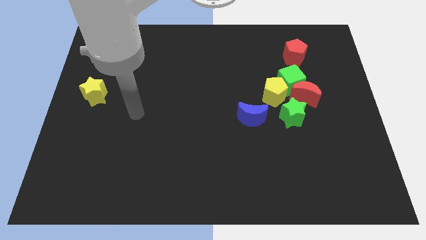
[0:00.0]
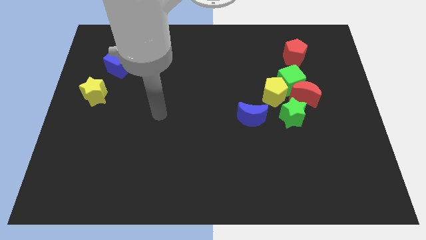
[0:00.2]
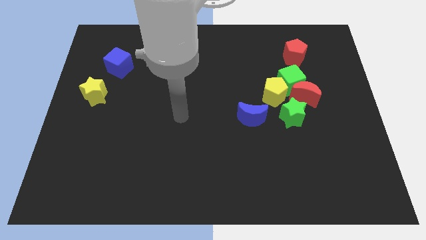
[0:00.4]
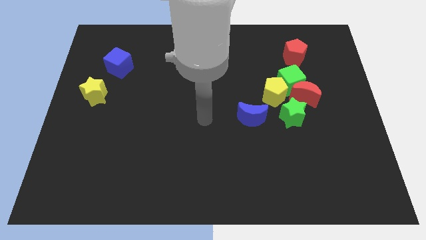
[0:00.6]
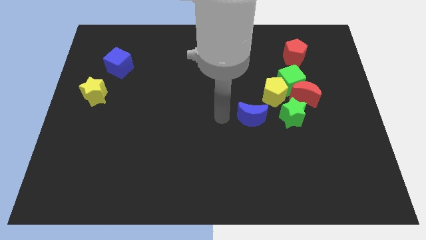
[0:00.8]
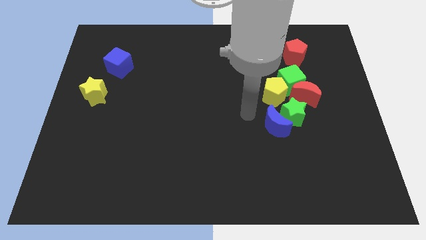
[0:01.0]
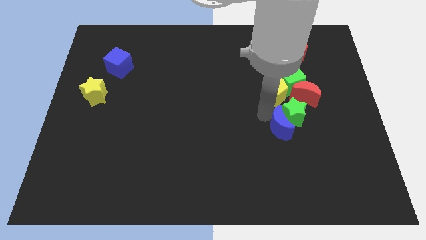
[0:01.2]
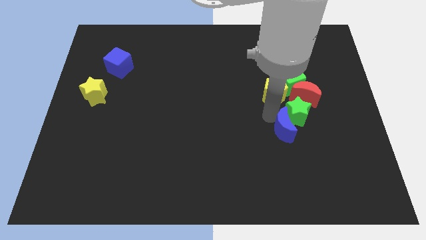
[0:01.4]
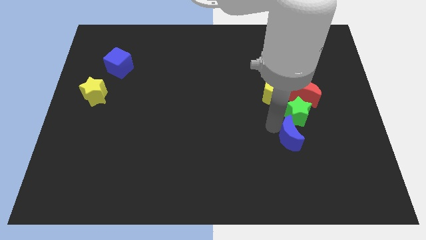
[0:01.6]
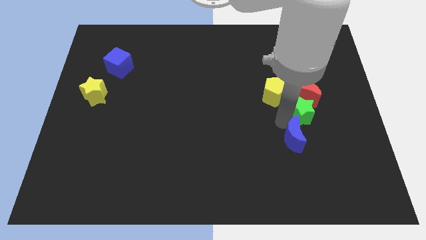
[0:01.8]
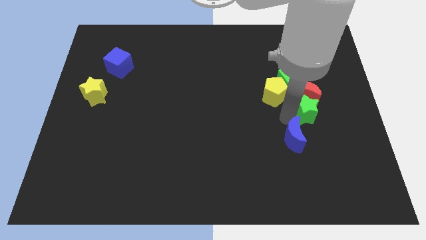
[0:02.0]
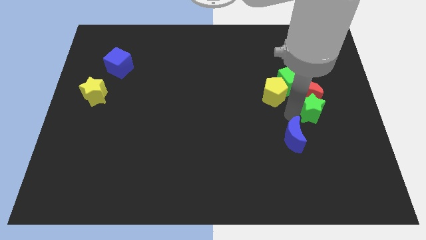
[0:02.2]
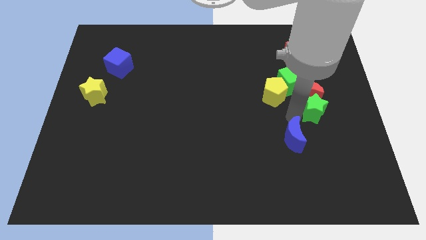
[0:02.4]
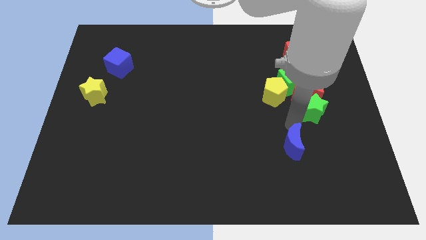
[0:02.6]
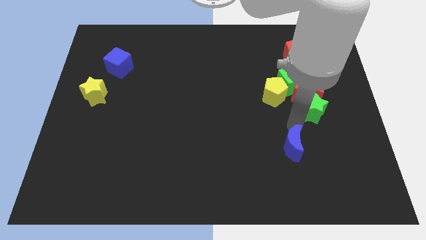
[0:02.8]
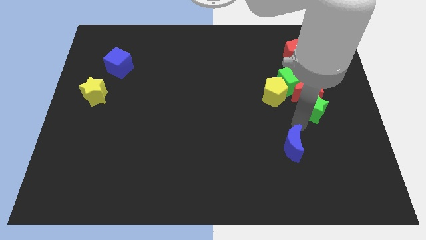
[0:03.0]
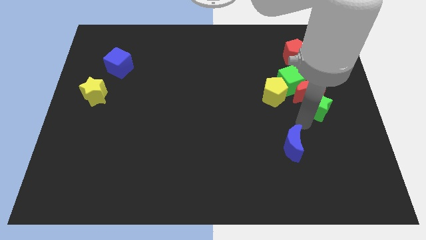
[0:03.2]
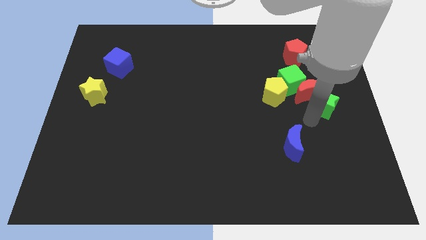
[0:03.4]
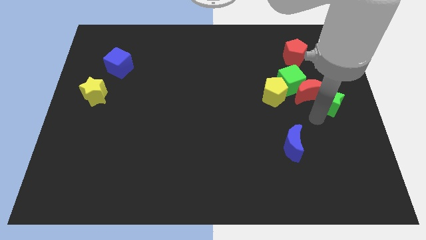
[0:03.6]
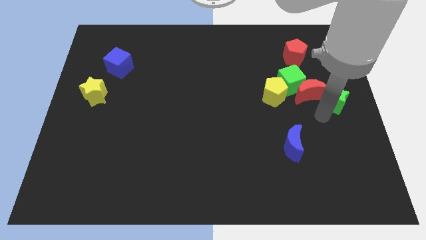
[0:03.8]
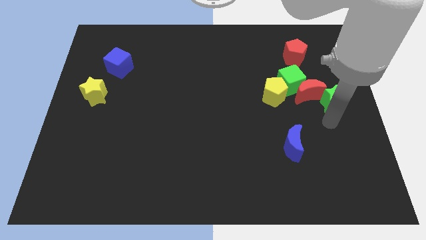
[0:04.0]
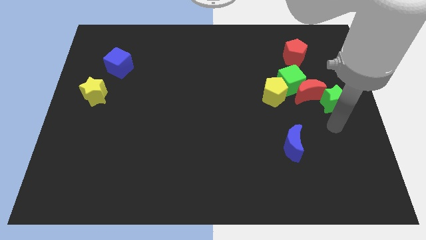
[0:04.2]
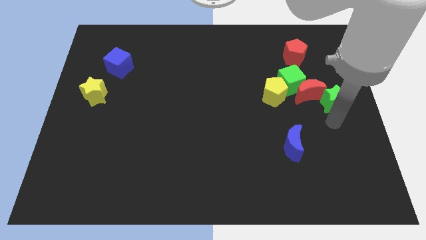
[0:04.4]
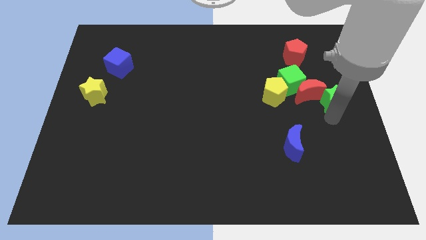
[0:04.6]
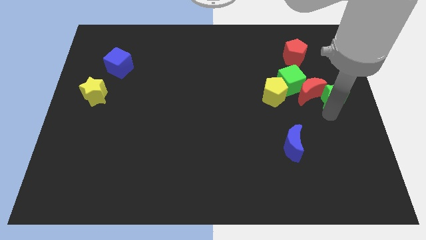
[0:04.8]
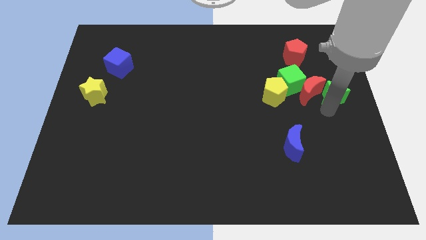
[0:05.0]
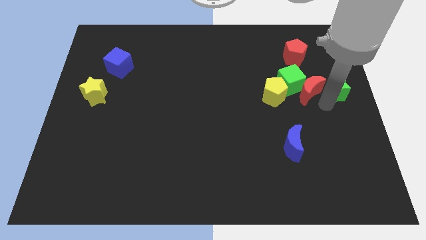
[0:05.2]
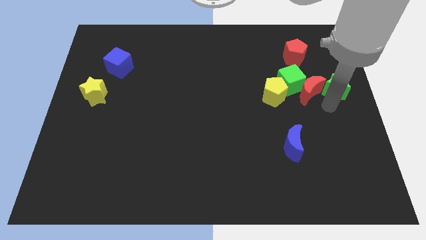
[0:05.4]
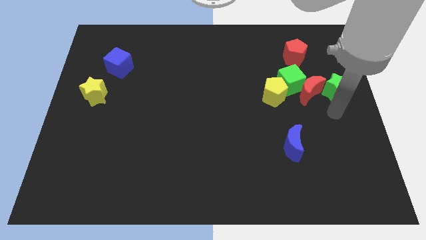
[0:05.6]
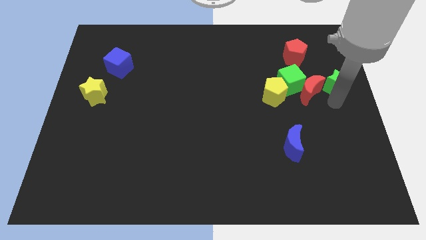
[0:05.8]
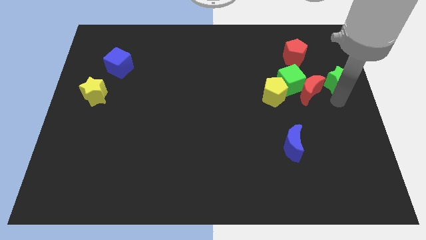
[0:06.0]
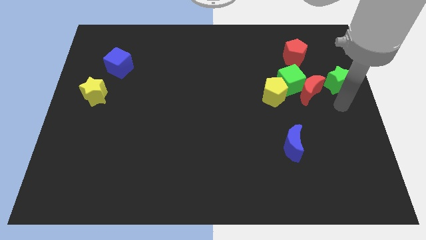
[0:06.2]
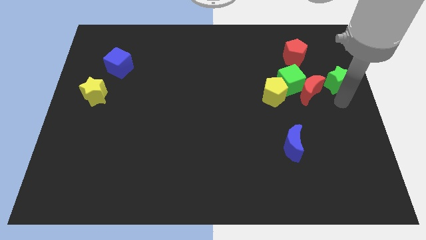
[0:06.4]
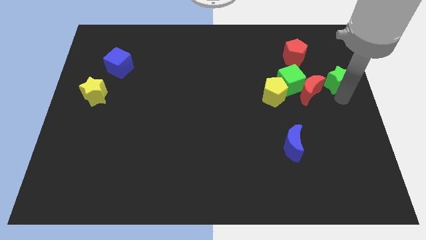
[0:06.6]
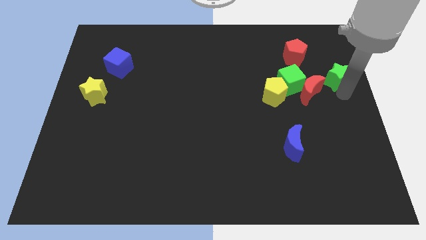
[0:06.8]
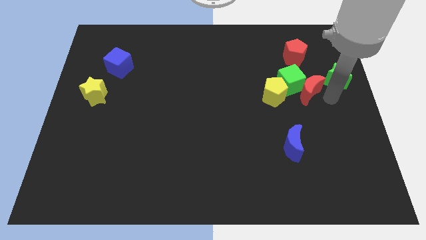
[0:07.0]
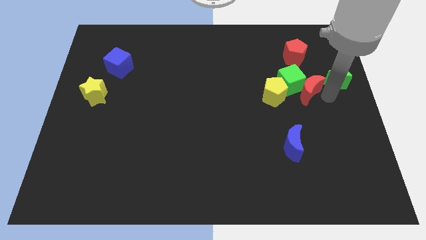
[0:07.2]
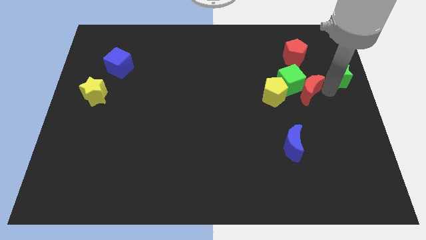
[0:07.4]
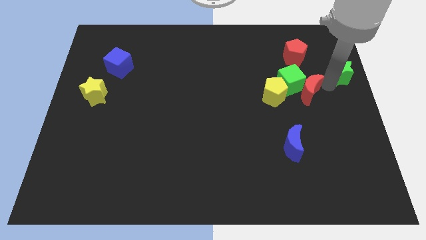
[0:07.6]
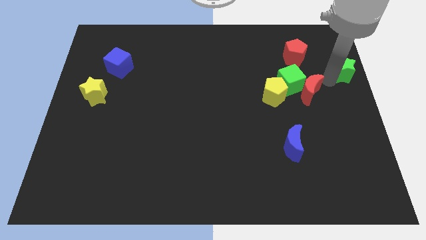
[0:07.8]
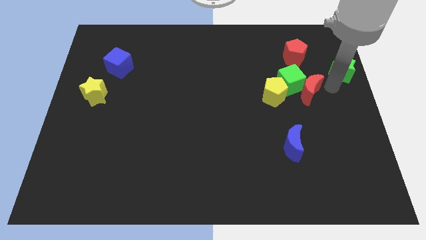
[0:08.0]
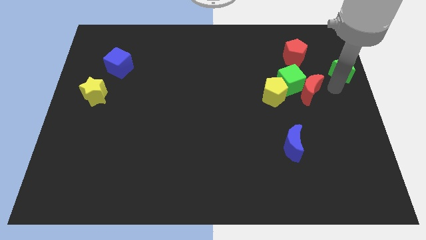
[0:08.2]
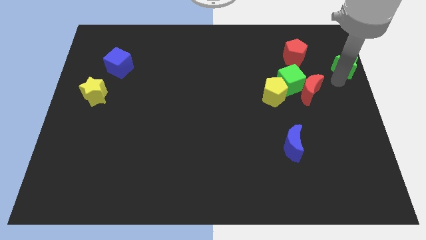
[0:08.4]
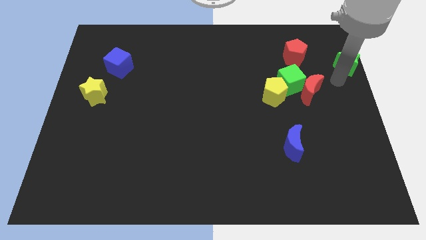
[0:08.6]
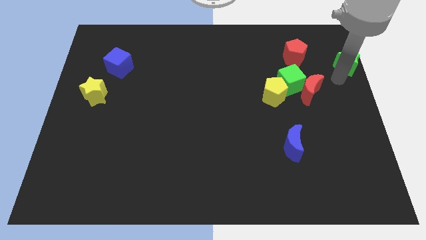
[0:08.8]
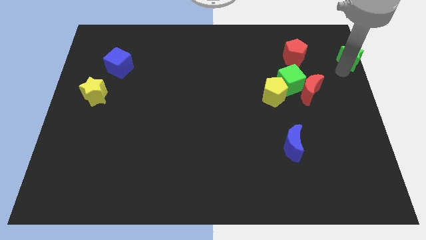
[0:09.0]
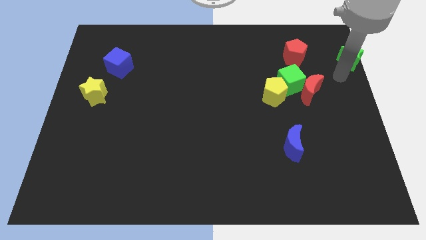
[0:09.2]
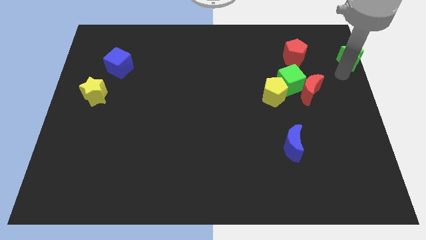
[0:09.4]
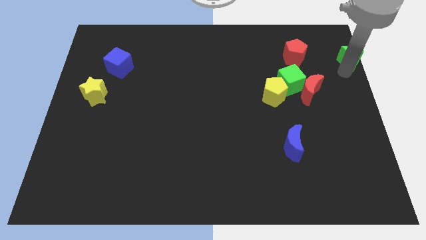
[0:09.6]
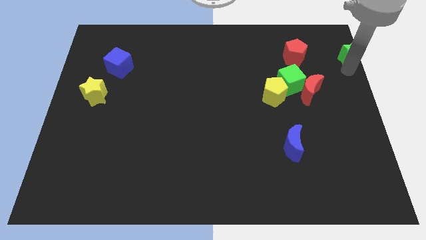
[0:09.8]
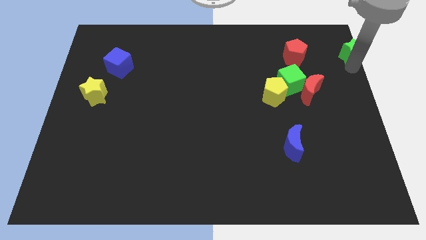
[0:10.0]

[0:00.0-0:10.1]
slide the green star to the top right corner

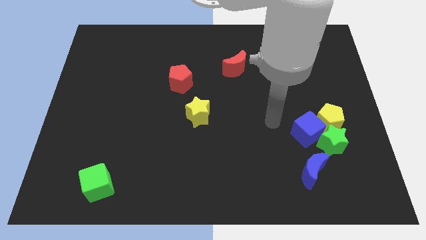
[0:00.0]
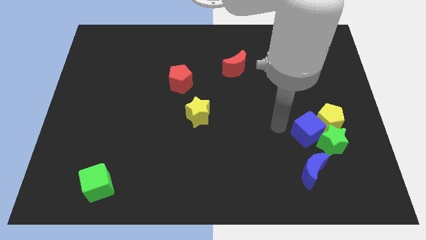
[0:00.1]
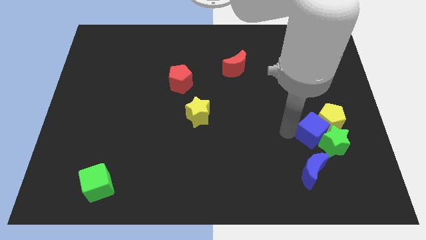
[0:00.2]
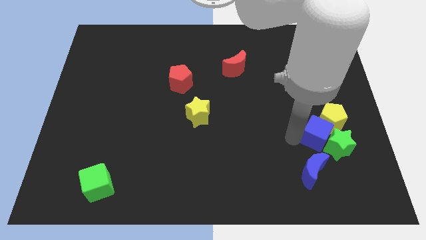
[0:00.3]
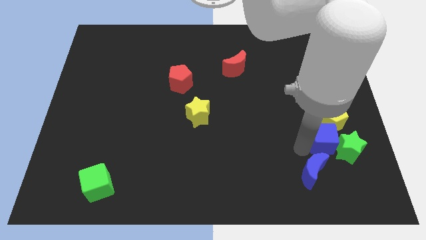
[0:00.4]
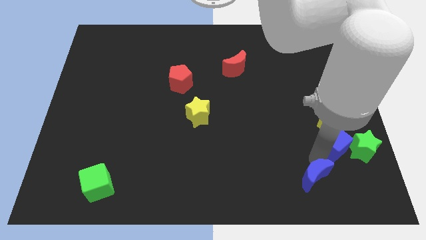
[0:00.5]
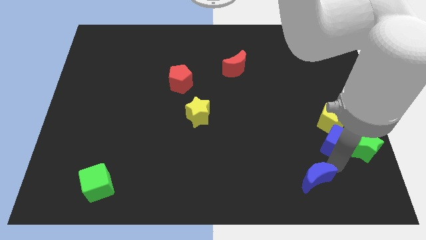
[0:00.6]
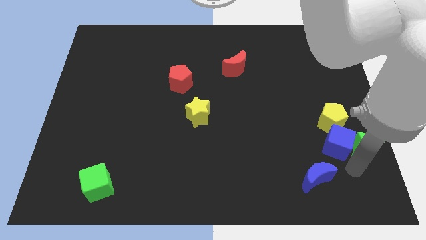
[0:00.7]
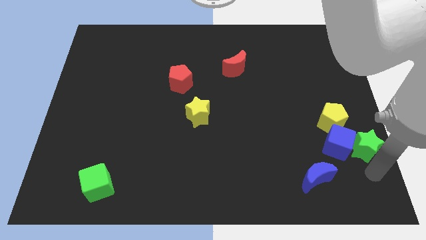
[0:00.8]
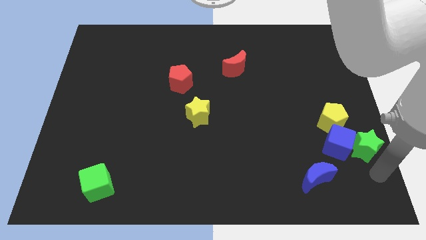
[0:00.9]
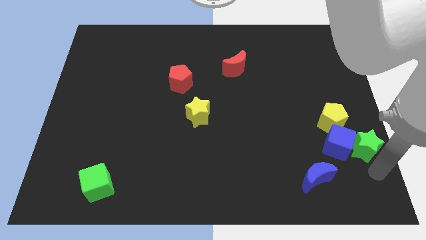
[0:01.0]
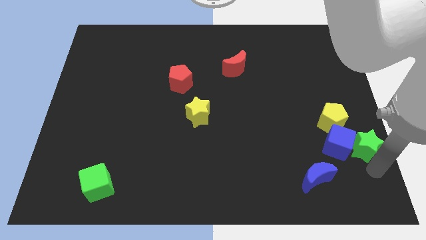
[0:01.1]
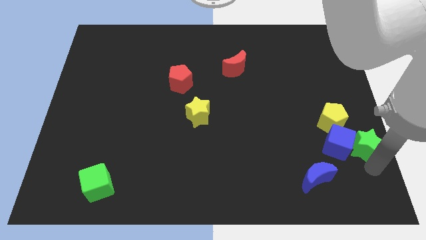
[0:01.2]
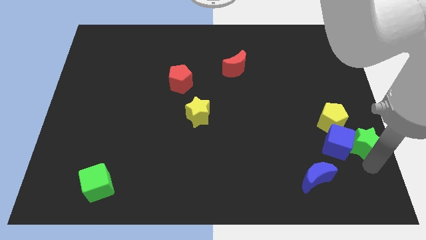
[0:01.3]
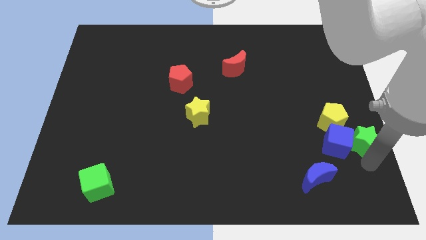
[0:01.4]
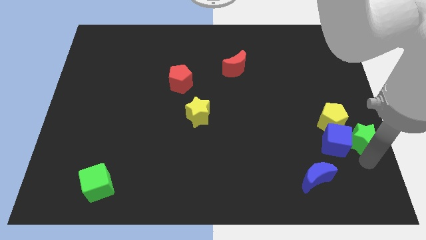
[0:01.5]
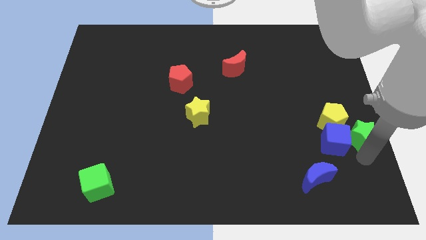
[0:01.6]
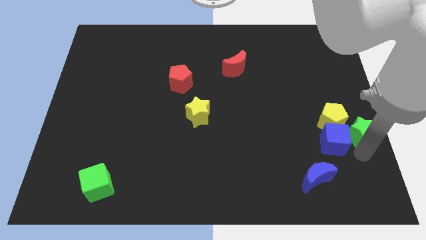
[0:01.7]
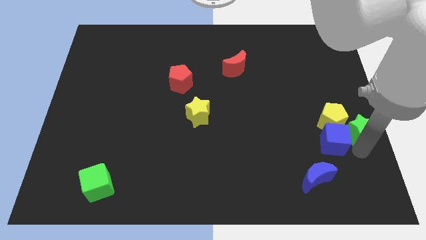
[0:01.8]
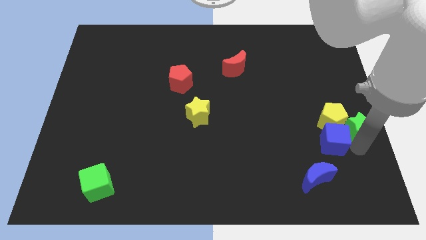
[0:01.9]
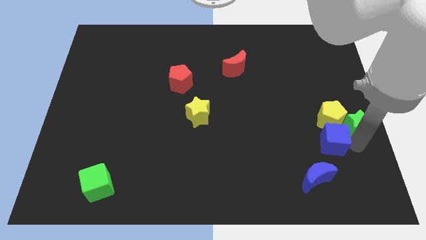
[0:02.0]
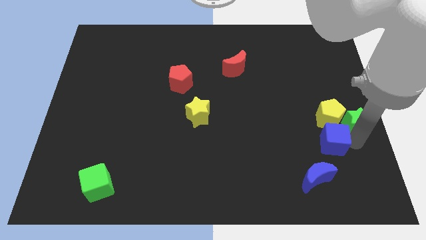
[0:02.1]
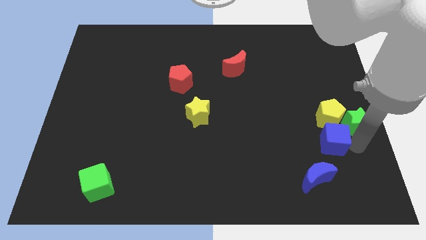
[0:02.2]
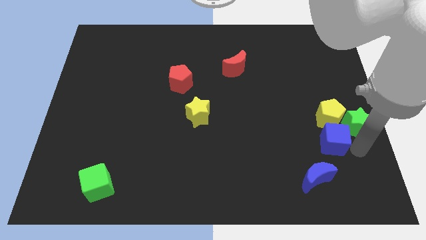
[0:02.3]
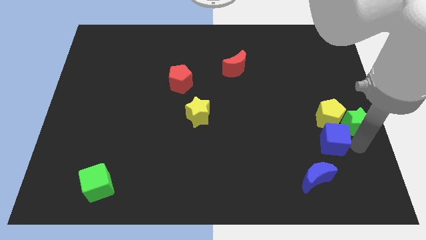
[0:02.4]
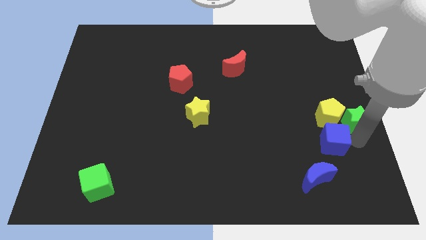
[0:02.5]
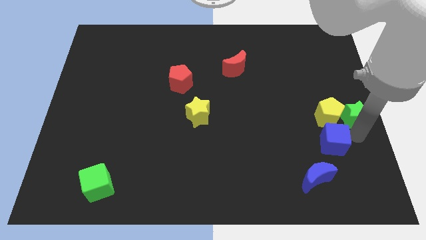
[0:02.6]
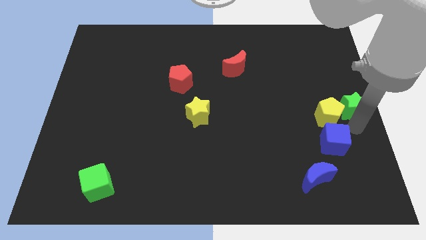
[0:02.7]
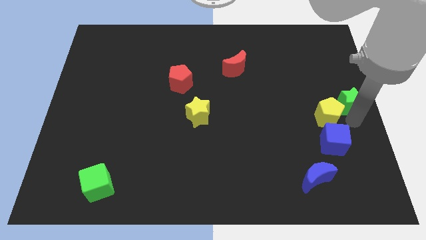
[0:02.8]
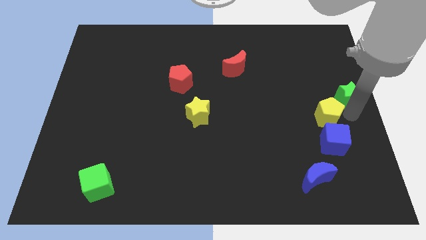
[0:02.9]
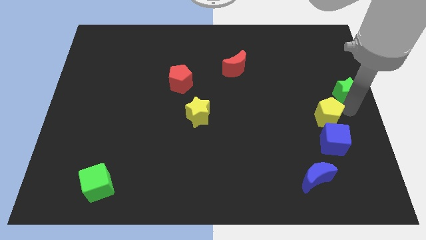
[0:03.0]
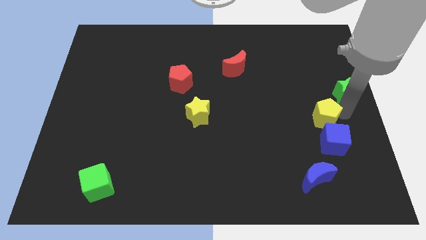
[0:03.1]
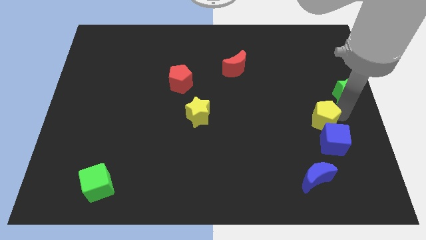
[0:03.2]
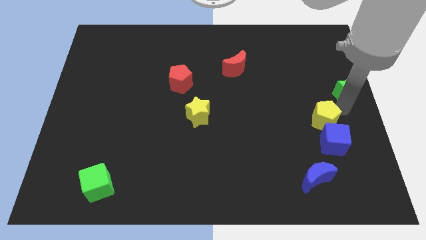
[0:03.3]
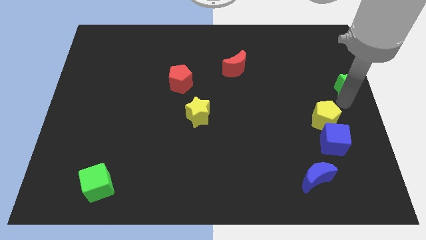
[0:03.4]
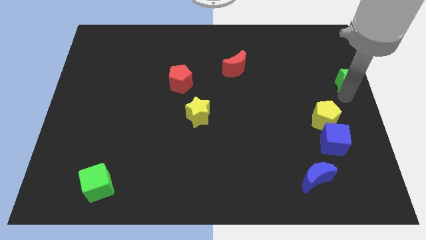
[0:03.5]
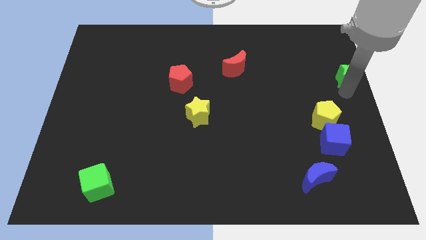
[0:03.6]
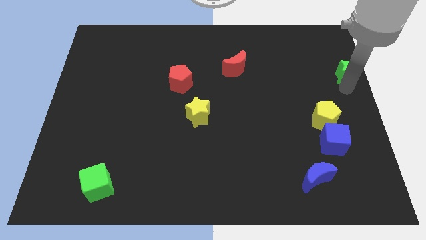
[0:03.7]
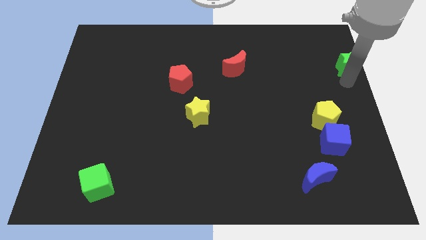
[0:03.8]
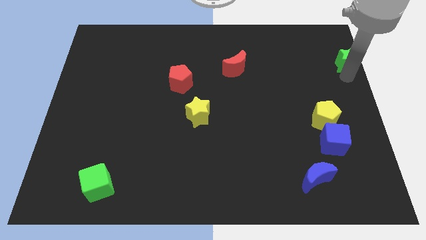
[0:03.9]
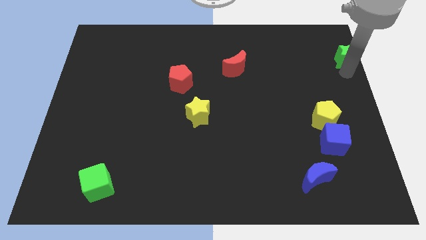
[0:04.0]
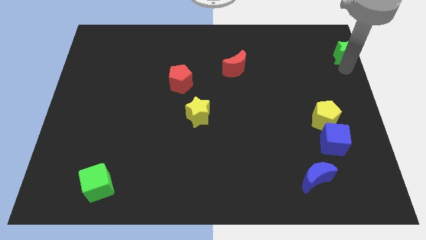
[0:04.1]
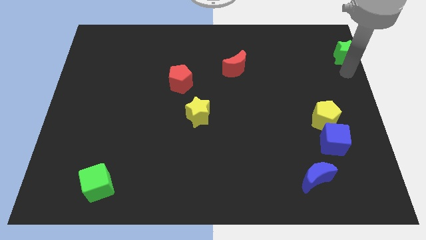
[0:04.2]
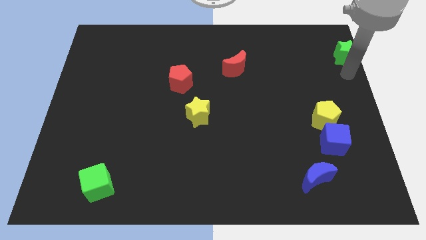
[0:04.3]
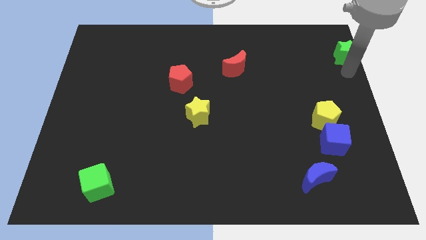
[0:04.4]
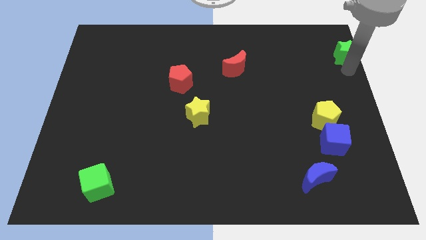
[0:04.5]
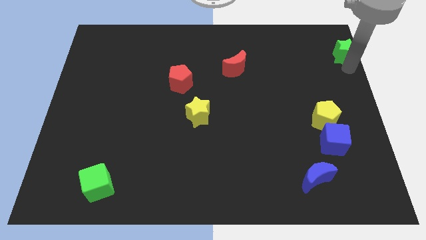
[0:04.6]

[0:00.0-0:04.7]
slide the green star to the upper right corner
